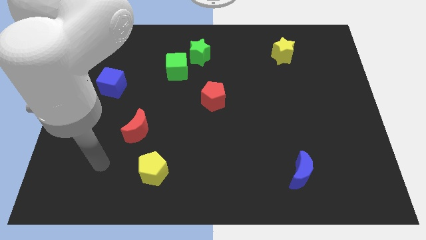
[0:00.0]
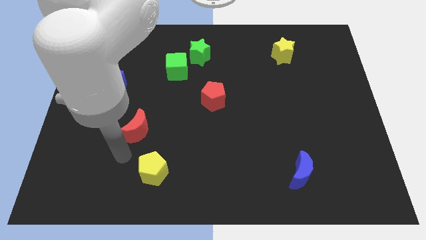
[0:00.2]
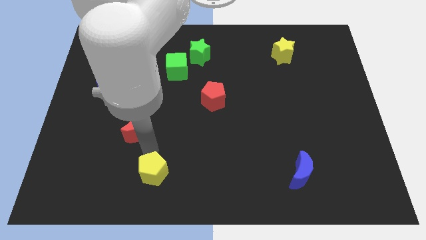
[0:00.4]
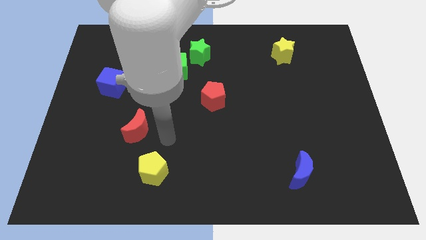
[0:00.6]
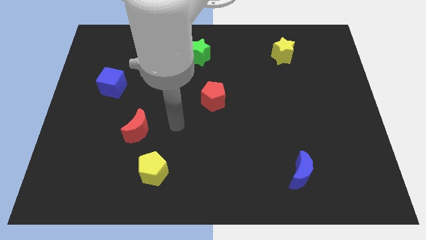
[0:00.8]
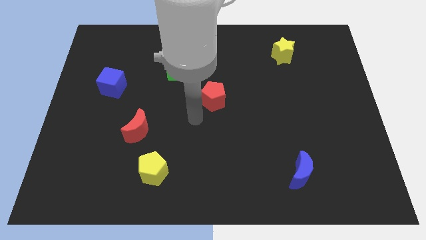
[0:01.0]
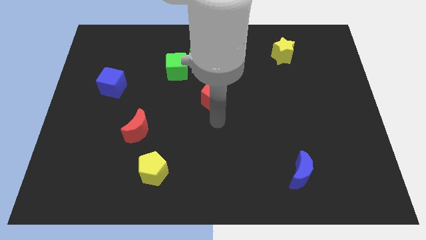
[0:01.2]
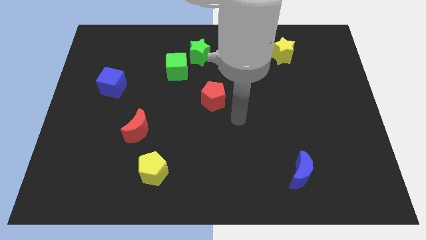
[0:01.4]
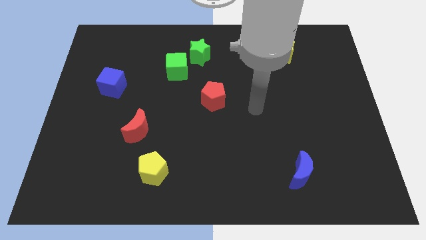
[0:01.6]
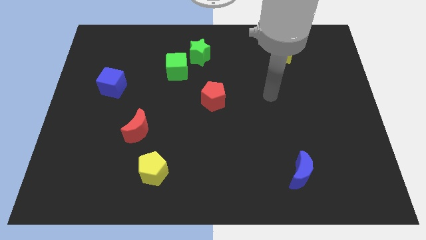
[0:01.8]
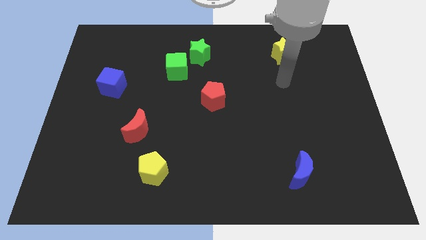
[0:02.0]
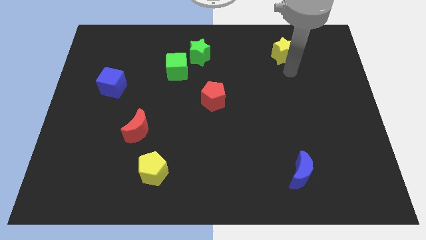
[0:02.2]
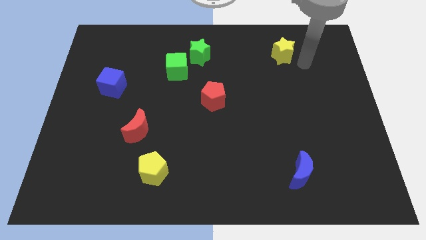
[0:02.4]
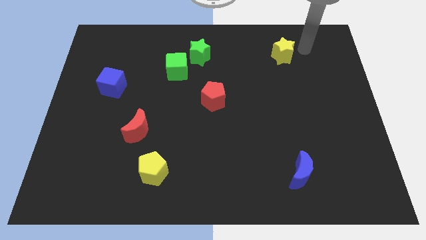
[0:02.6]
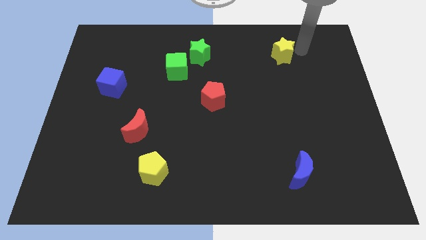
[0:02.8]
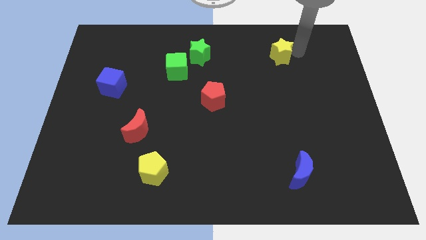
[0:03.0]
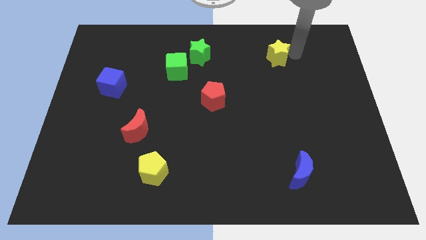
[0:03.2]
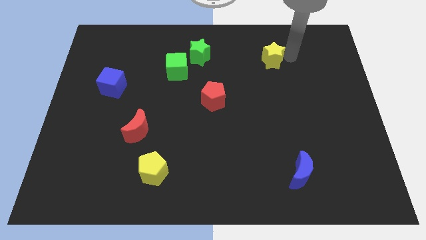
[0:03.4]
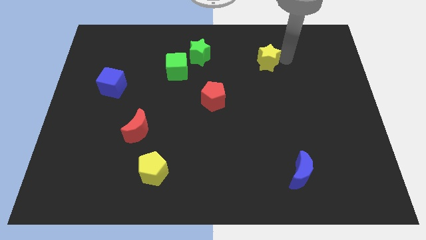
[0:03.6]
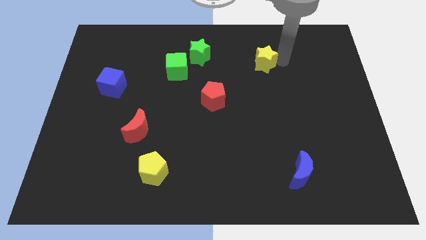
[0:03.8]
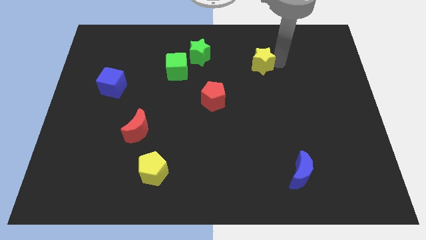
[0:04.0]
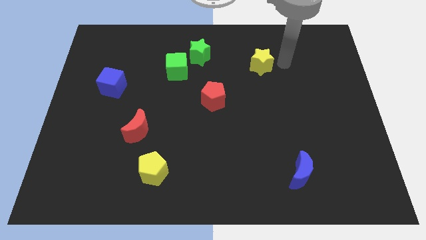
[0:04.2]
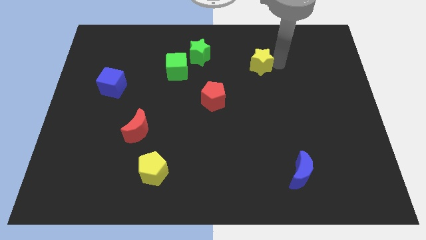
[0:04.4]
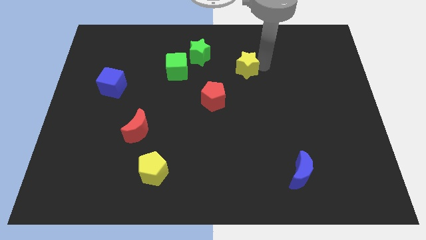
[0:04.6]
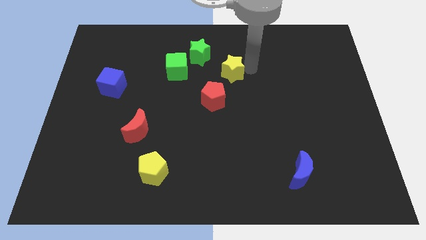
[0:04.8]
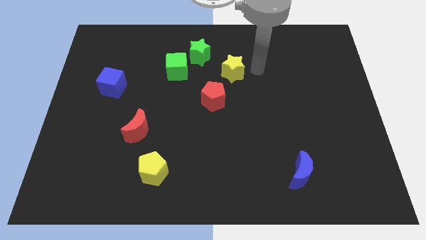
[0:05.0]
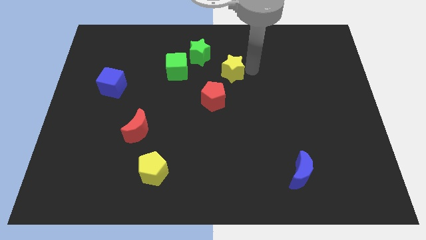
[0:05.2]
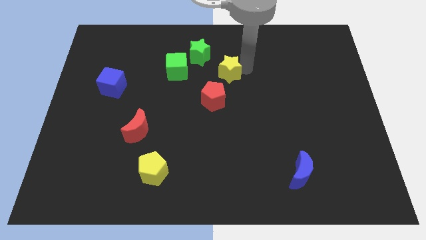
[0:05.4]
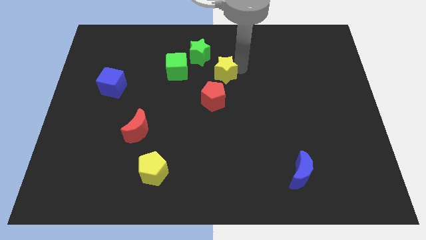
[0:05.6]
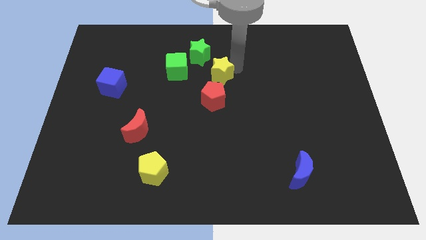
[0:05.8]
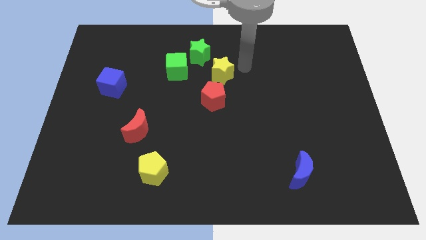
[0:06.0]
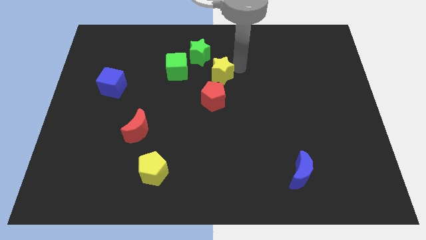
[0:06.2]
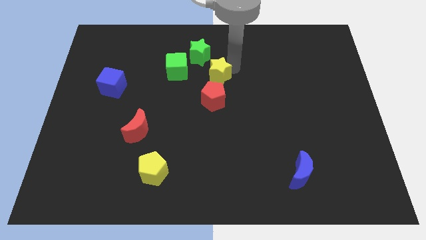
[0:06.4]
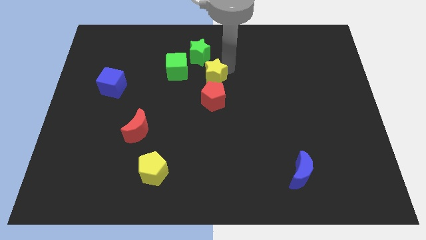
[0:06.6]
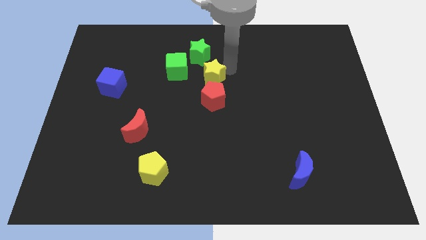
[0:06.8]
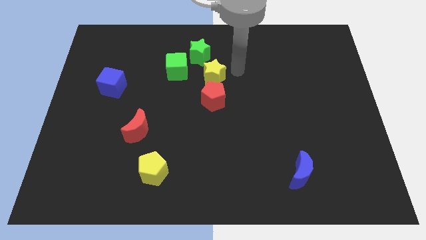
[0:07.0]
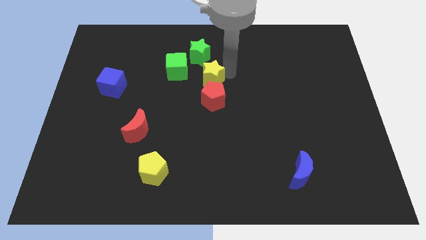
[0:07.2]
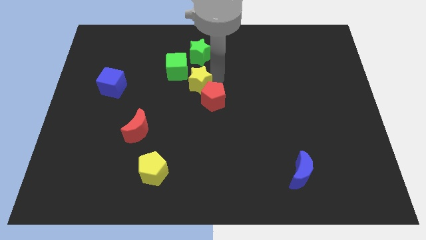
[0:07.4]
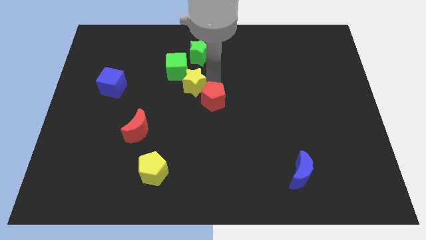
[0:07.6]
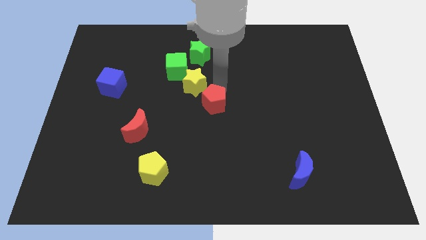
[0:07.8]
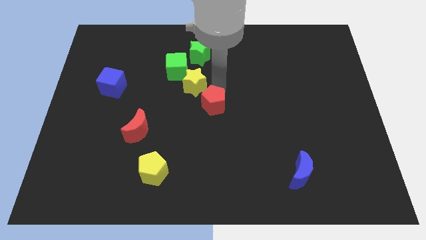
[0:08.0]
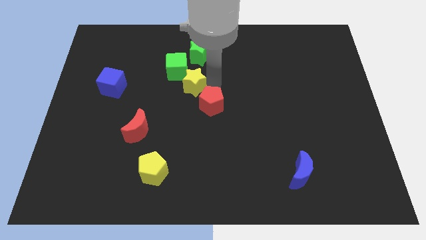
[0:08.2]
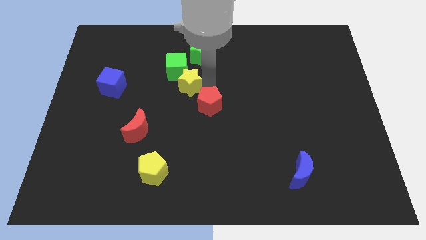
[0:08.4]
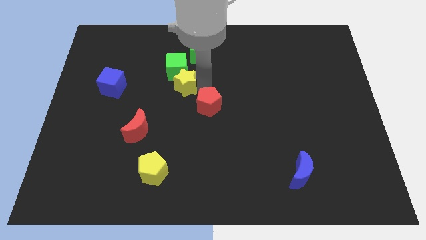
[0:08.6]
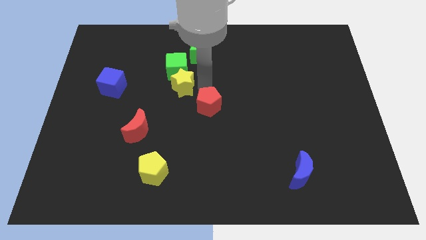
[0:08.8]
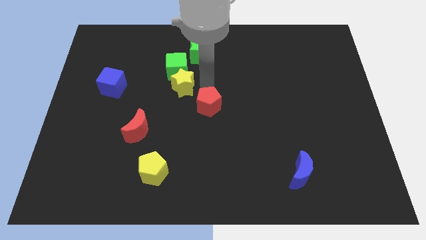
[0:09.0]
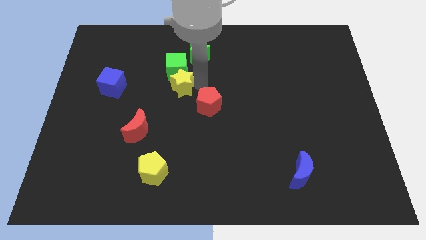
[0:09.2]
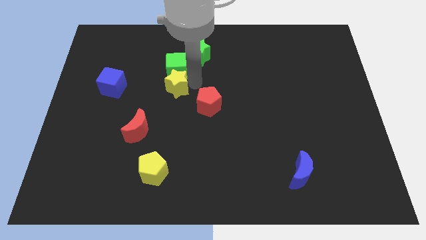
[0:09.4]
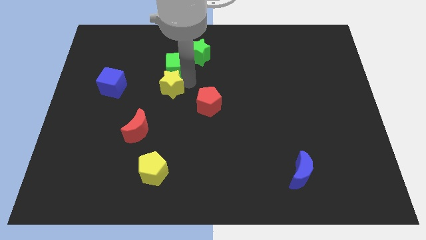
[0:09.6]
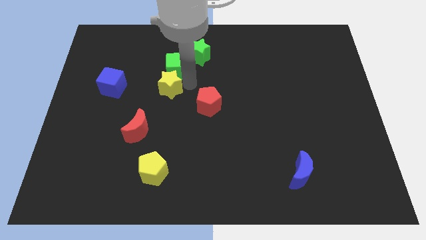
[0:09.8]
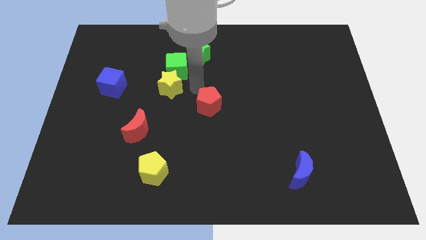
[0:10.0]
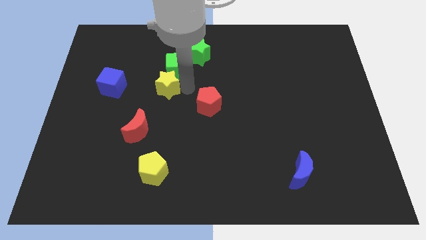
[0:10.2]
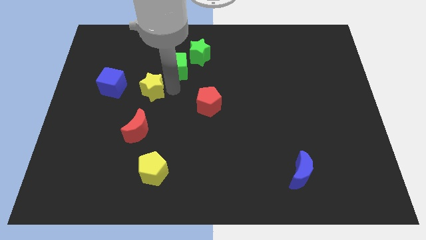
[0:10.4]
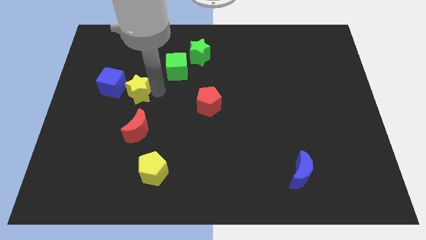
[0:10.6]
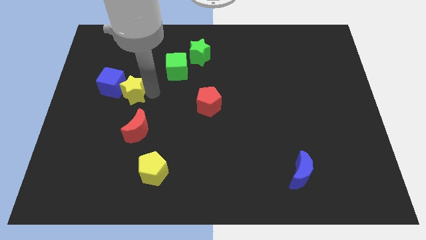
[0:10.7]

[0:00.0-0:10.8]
slide the yellow star to the blue cube
